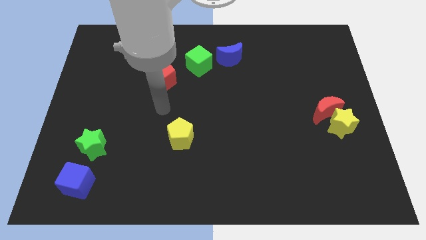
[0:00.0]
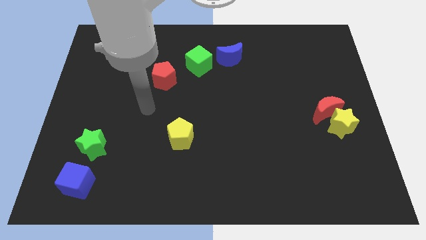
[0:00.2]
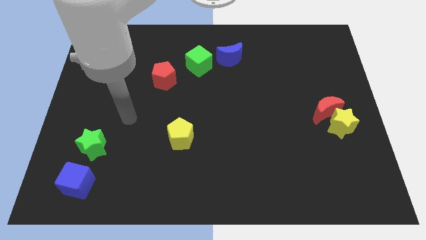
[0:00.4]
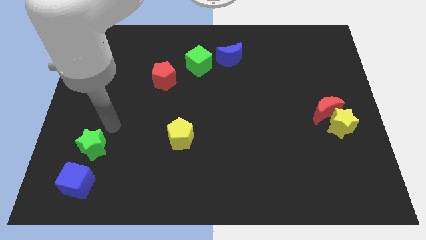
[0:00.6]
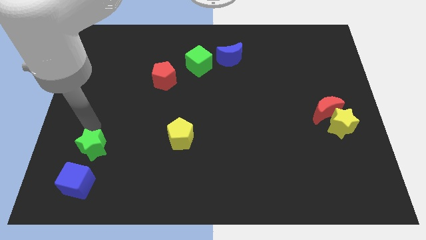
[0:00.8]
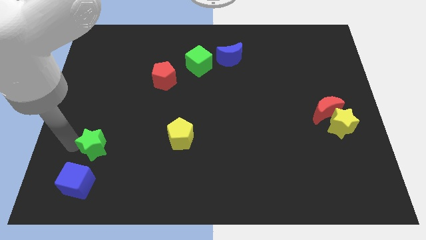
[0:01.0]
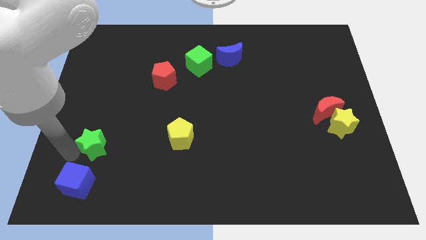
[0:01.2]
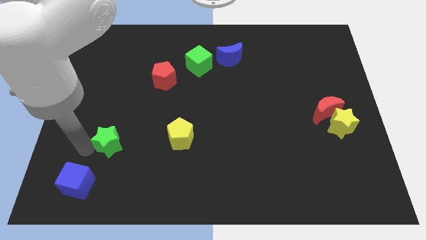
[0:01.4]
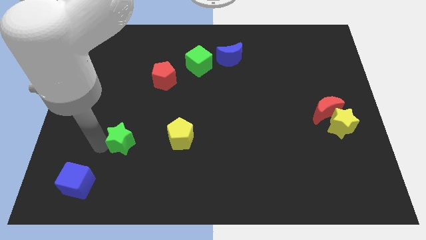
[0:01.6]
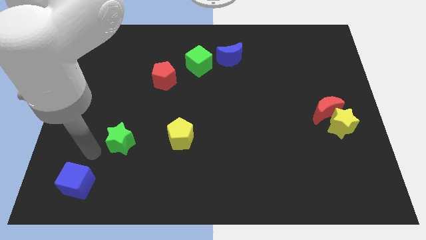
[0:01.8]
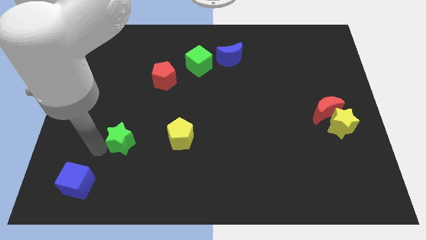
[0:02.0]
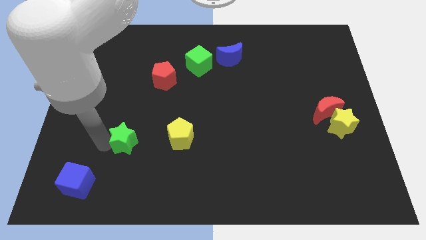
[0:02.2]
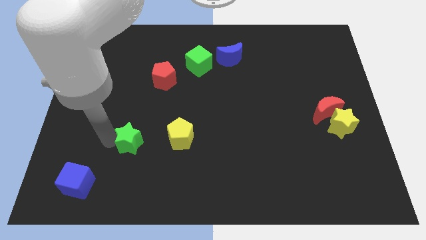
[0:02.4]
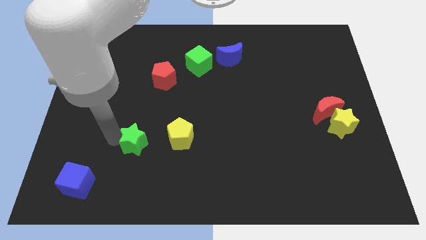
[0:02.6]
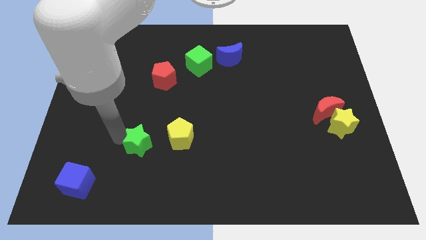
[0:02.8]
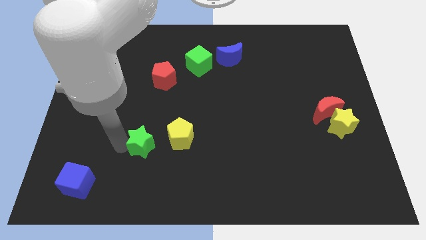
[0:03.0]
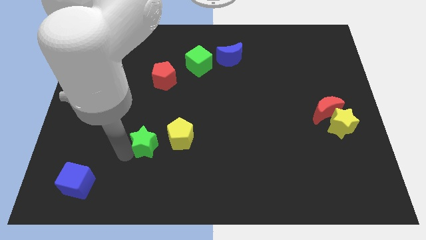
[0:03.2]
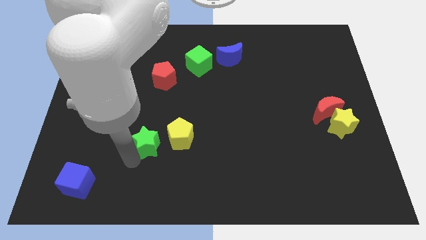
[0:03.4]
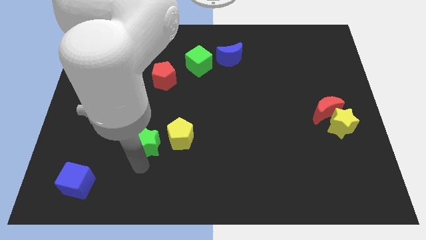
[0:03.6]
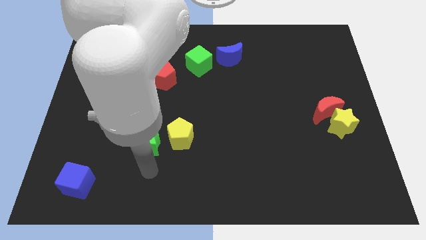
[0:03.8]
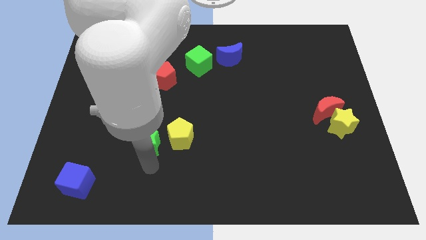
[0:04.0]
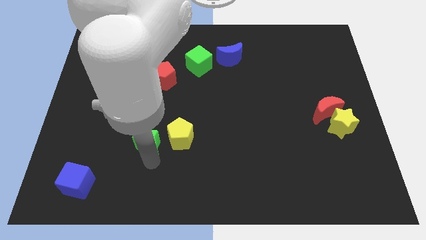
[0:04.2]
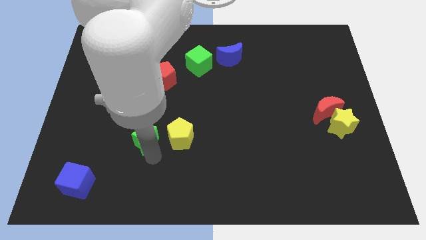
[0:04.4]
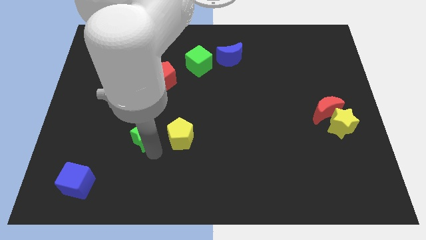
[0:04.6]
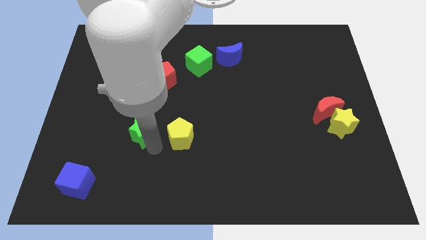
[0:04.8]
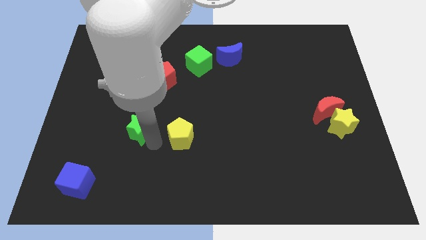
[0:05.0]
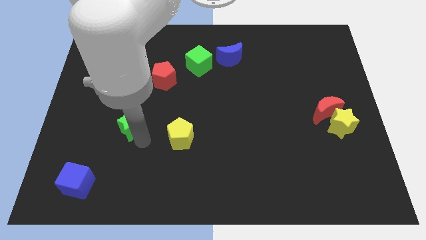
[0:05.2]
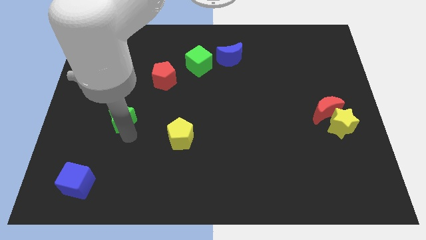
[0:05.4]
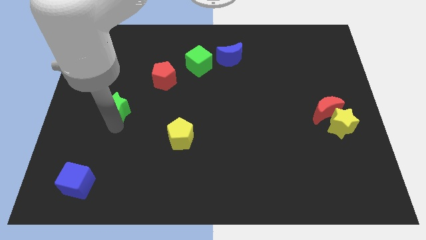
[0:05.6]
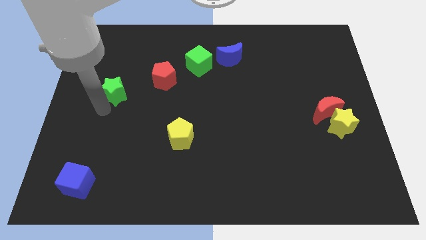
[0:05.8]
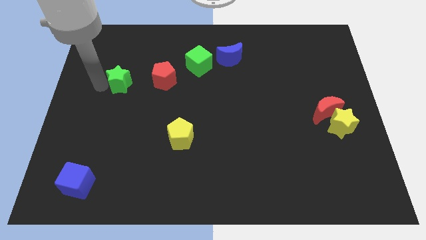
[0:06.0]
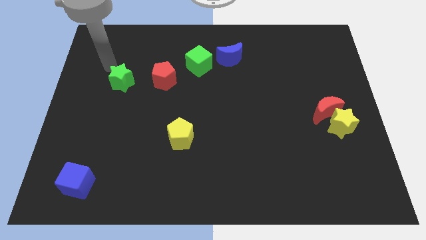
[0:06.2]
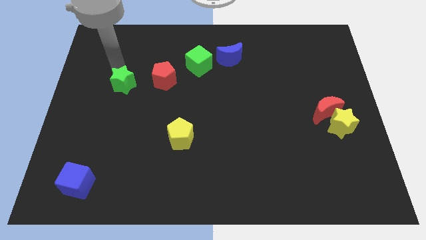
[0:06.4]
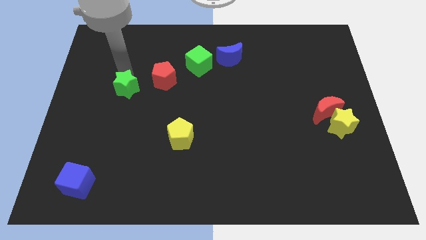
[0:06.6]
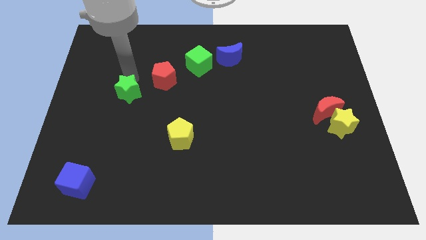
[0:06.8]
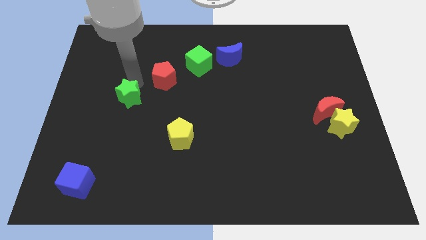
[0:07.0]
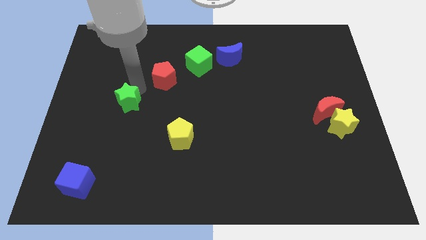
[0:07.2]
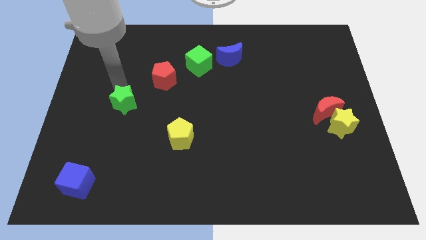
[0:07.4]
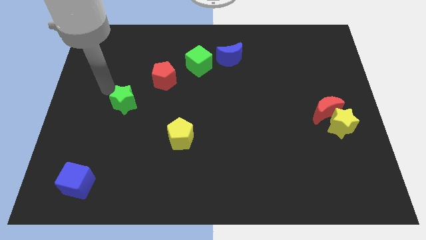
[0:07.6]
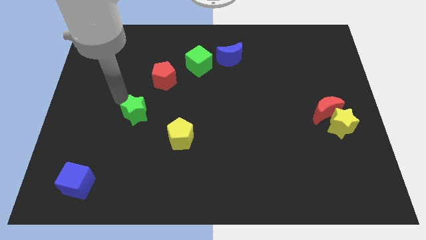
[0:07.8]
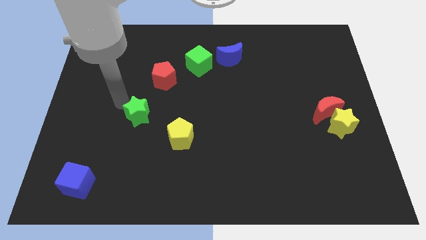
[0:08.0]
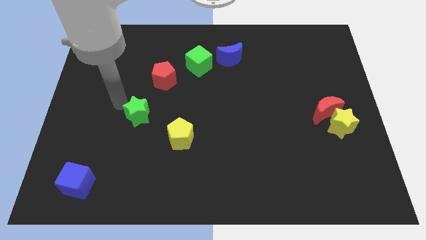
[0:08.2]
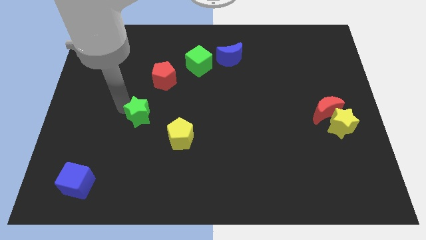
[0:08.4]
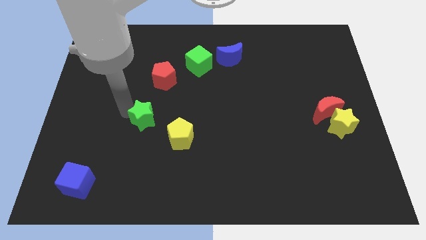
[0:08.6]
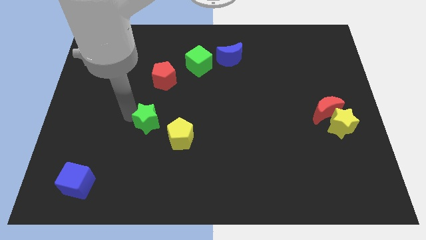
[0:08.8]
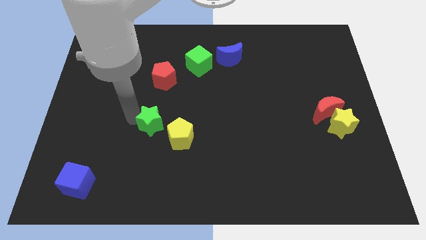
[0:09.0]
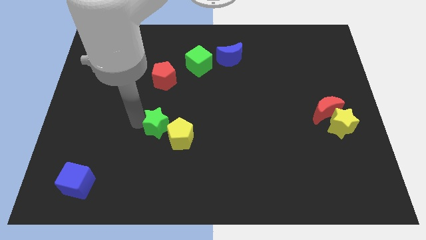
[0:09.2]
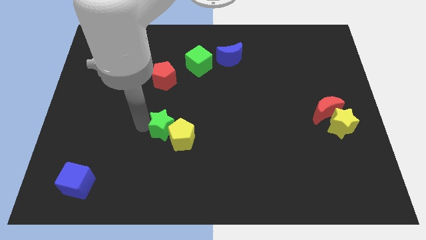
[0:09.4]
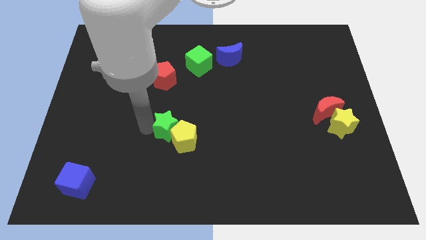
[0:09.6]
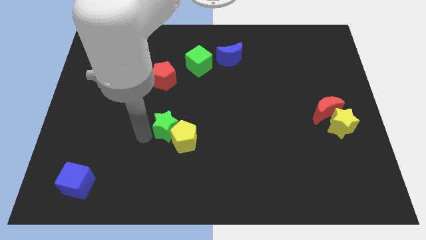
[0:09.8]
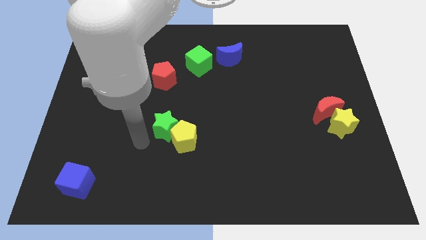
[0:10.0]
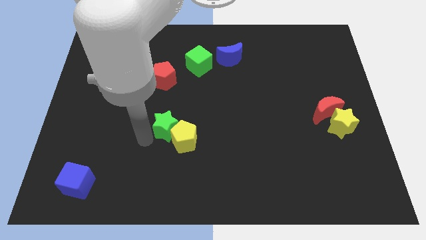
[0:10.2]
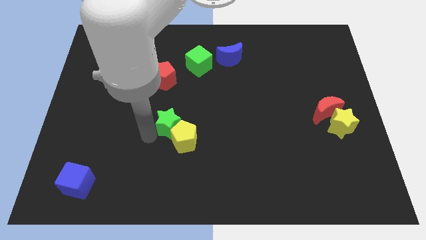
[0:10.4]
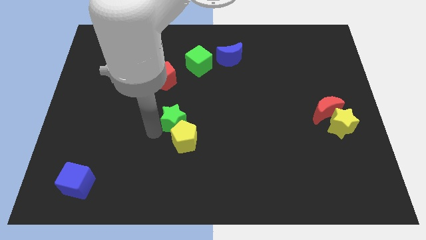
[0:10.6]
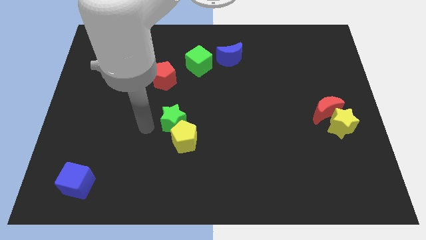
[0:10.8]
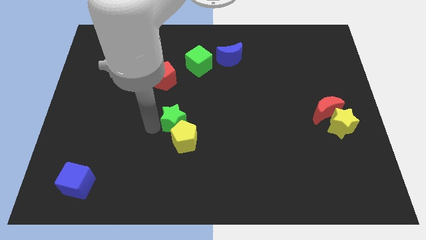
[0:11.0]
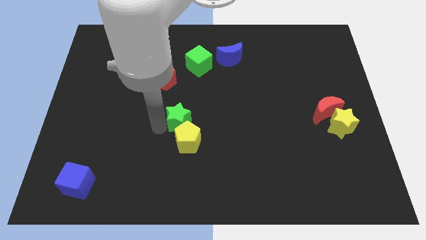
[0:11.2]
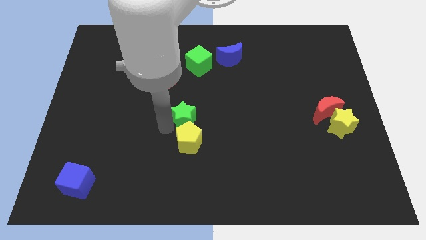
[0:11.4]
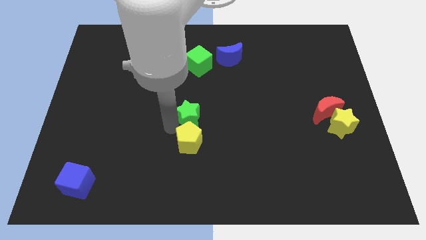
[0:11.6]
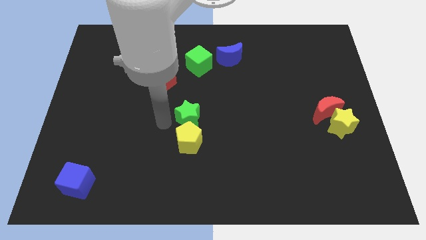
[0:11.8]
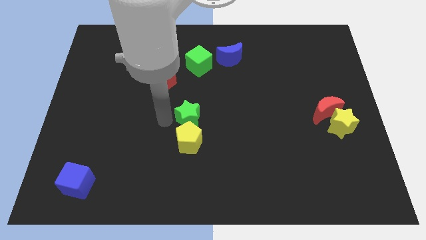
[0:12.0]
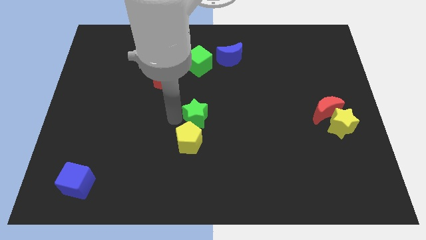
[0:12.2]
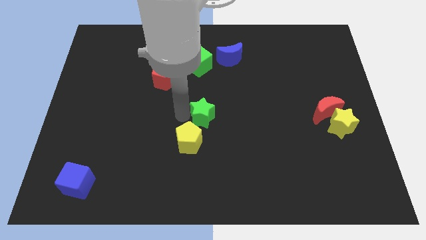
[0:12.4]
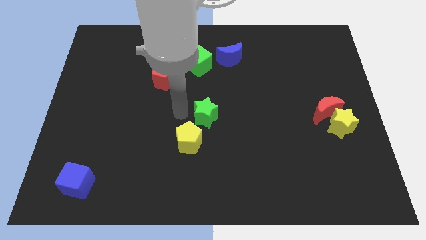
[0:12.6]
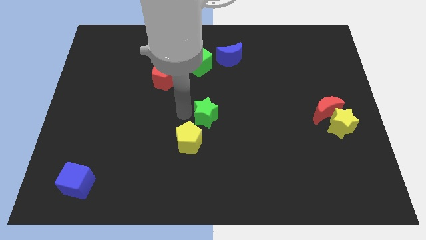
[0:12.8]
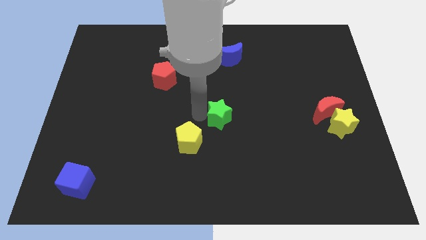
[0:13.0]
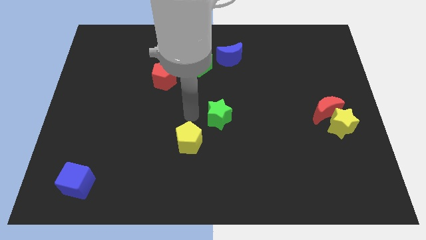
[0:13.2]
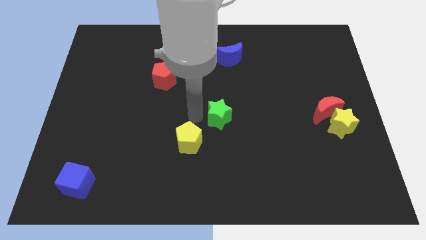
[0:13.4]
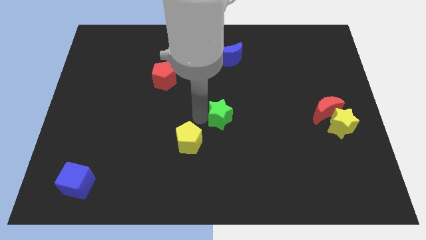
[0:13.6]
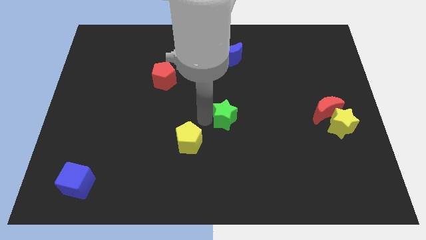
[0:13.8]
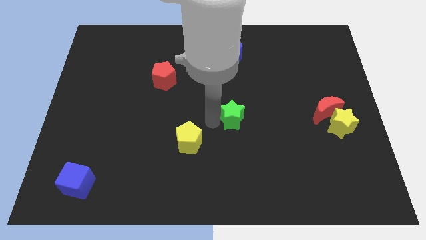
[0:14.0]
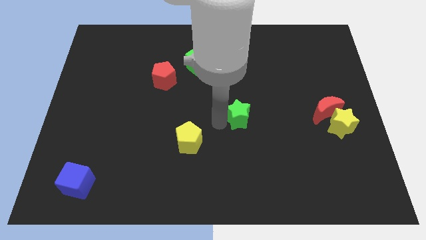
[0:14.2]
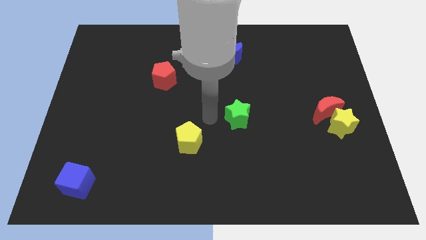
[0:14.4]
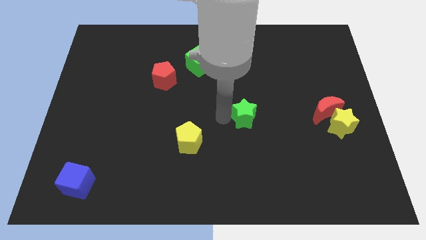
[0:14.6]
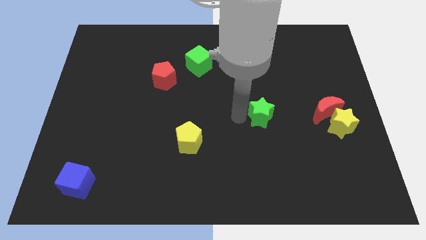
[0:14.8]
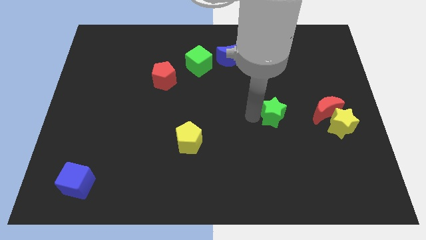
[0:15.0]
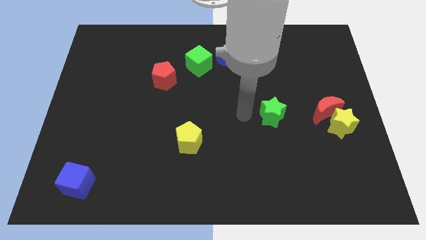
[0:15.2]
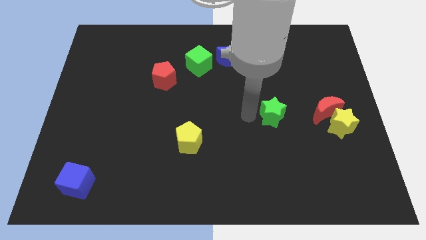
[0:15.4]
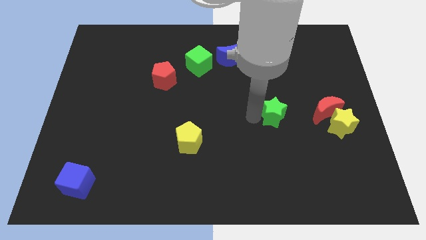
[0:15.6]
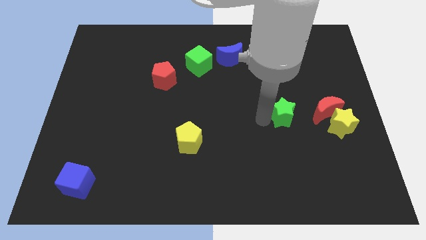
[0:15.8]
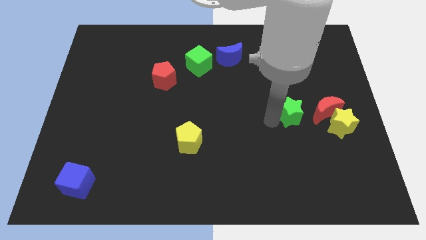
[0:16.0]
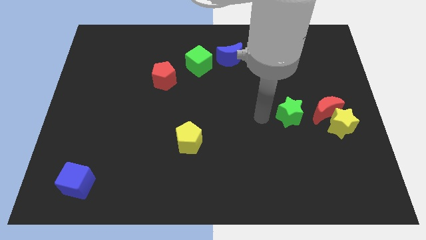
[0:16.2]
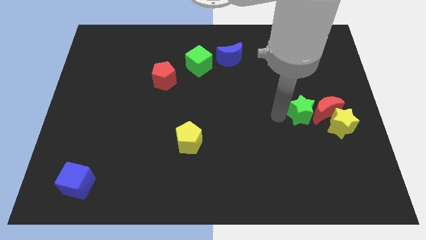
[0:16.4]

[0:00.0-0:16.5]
move the green star close to the red moon
